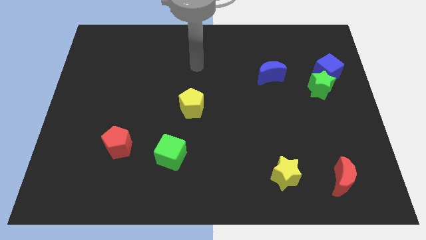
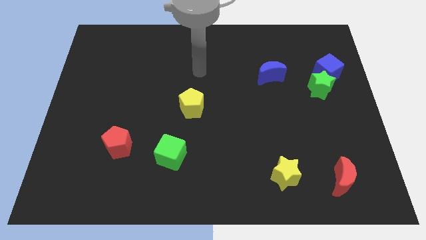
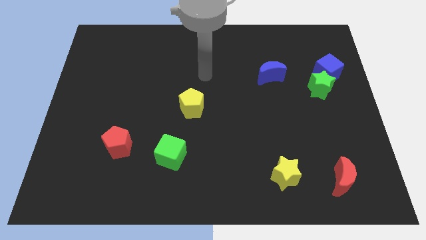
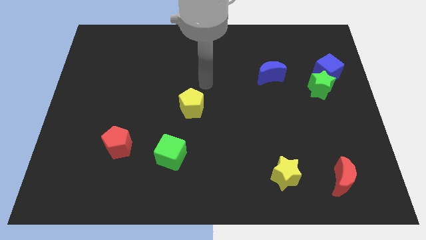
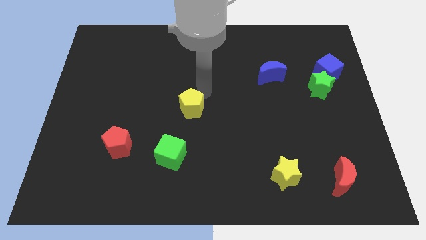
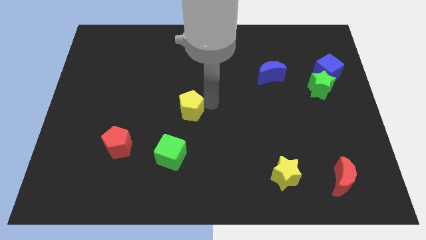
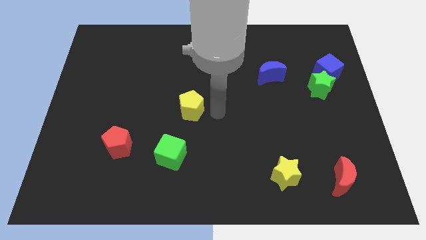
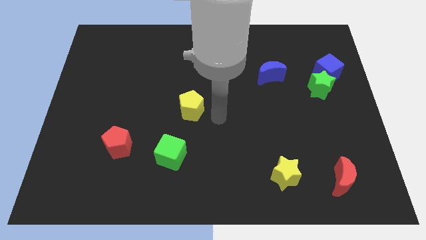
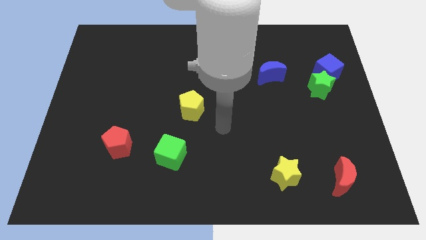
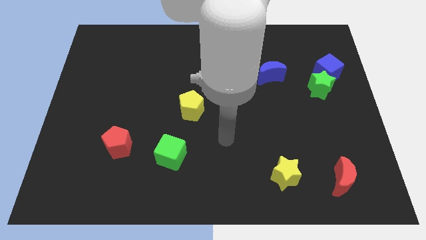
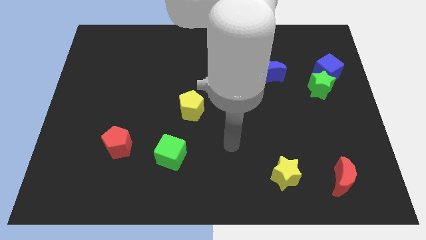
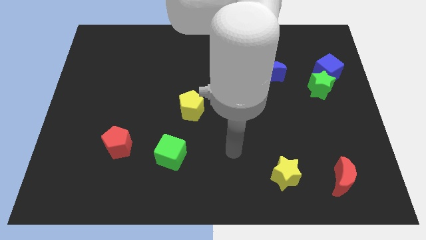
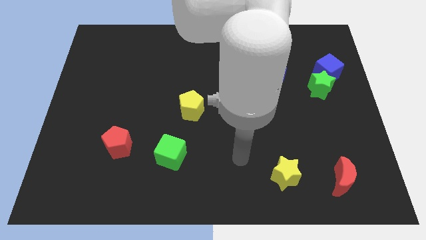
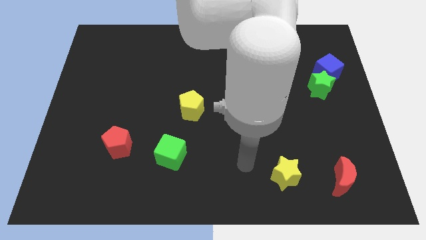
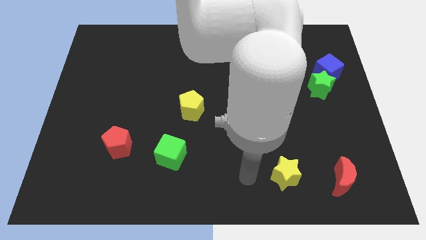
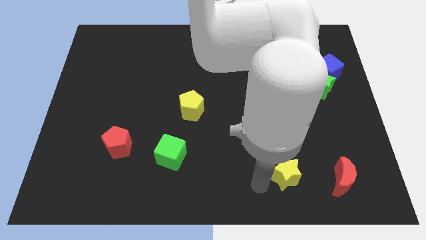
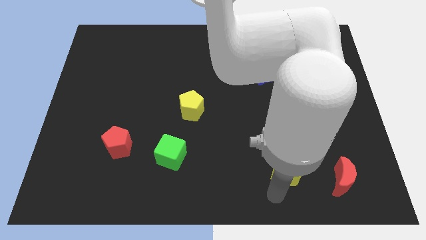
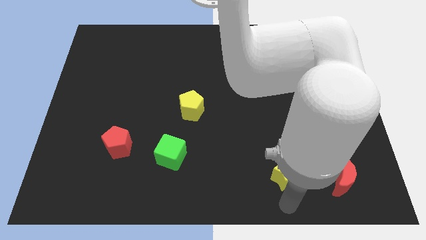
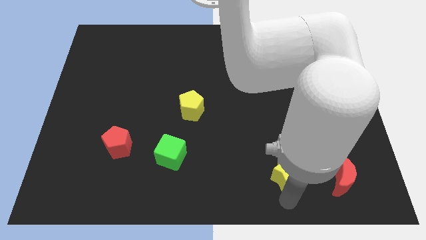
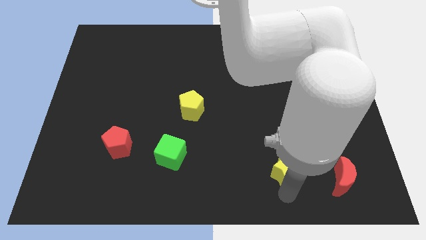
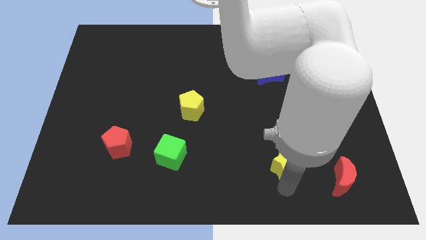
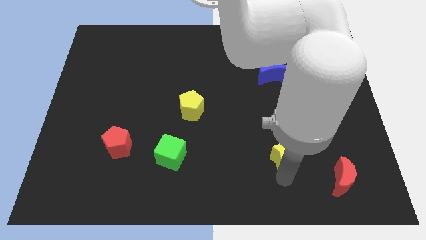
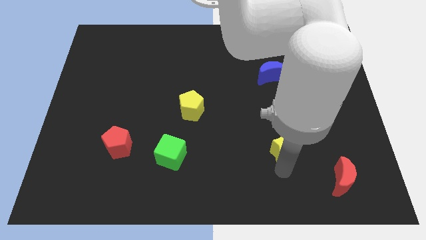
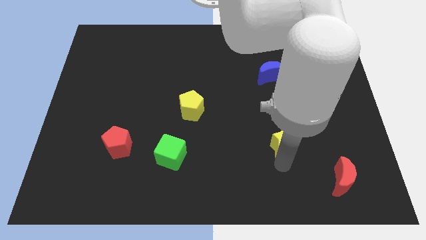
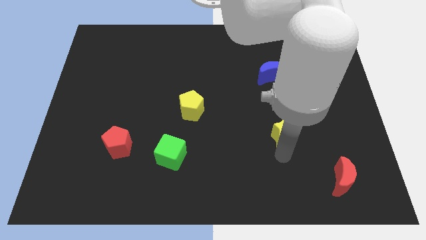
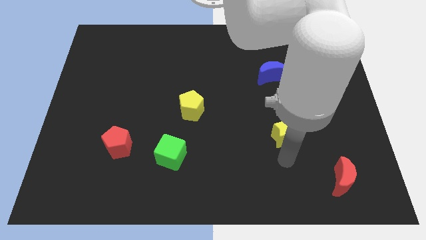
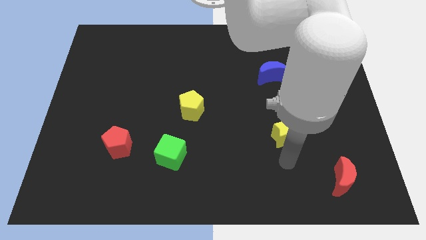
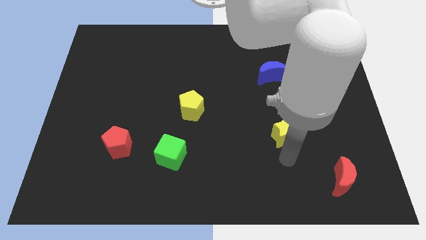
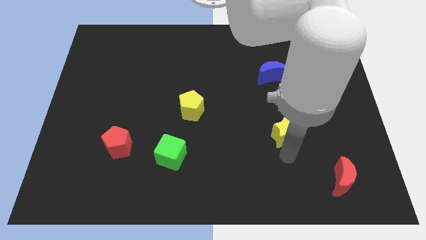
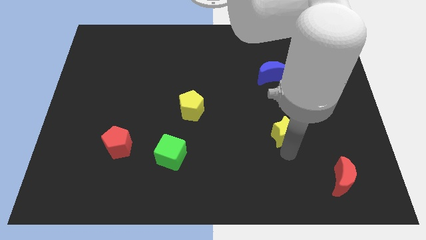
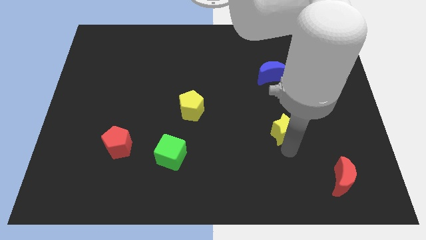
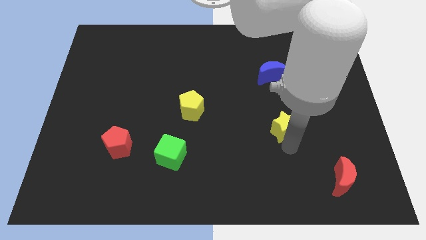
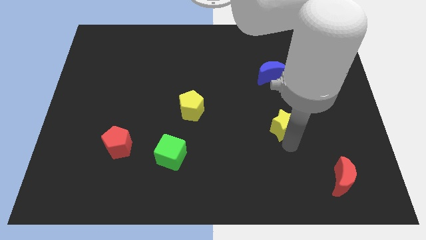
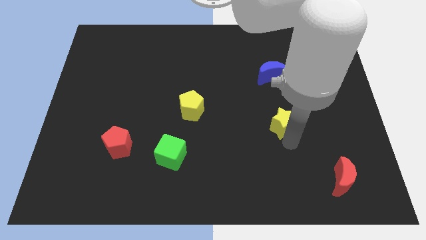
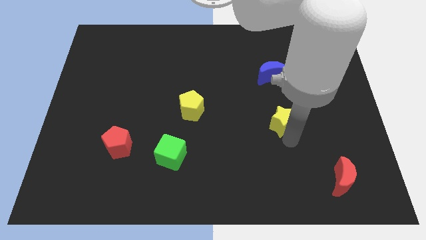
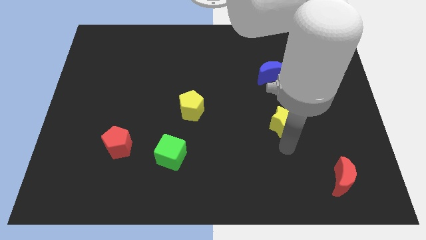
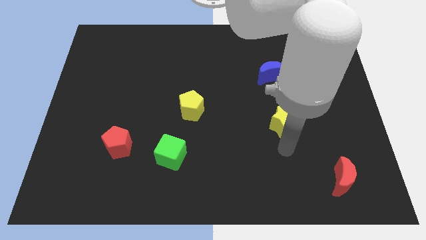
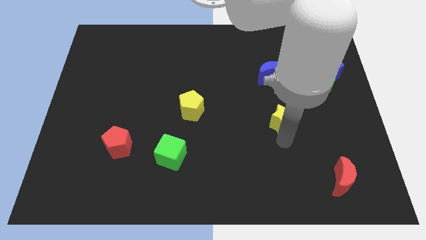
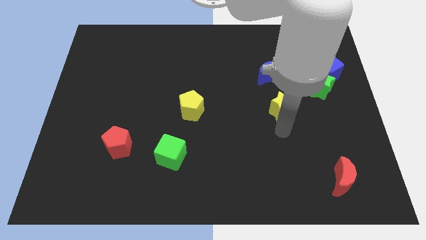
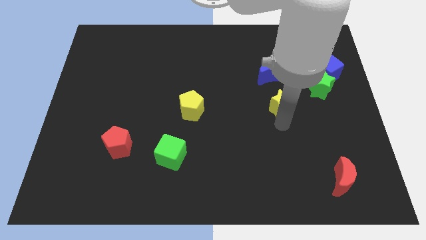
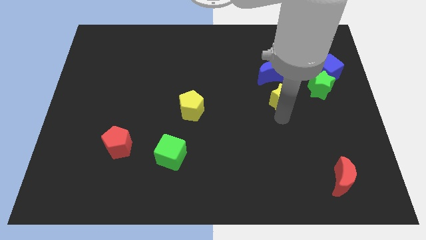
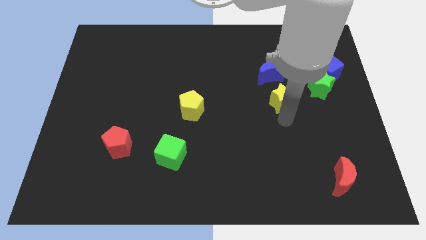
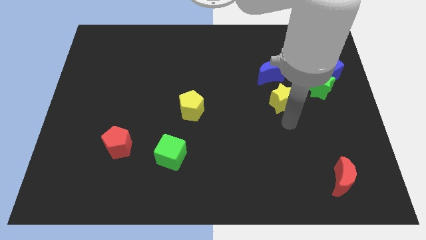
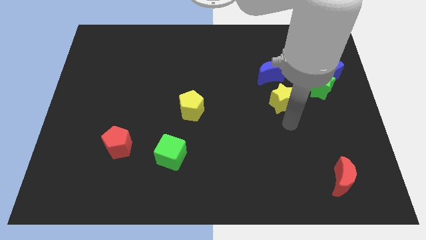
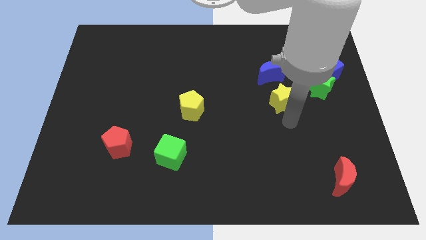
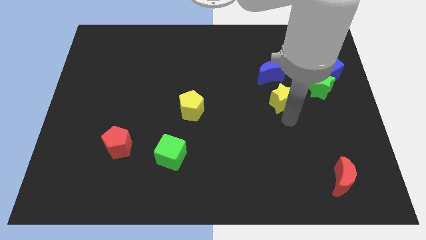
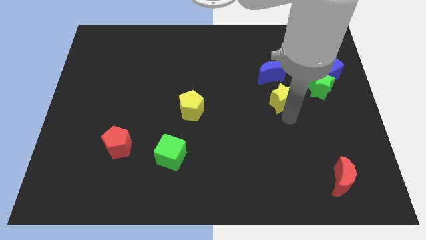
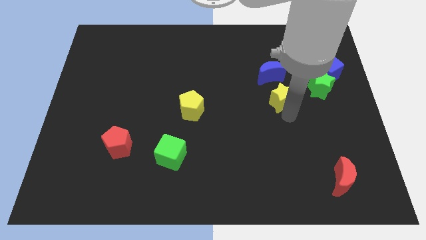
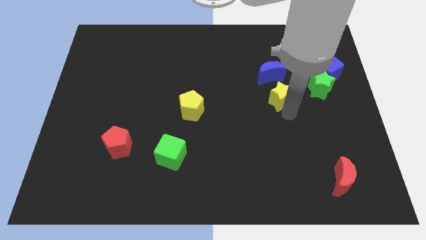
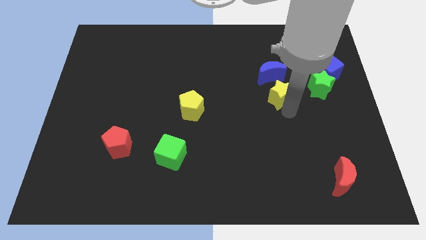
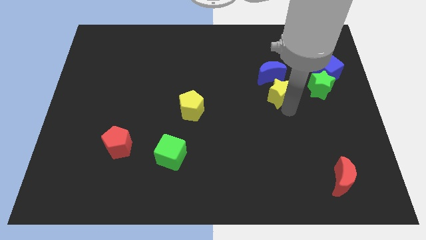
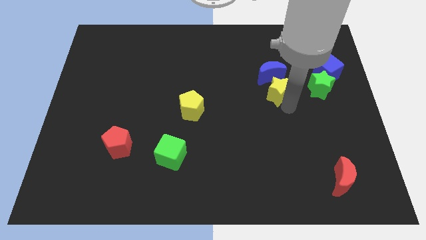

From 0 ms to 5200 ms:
move the yellow star next to the blue moon

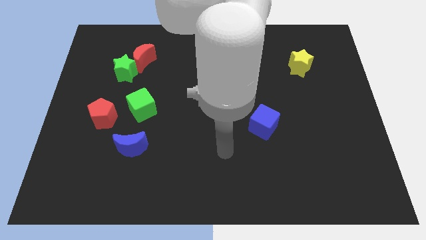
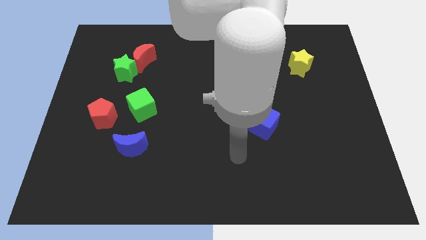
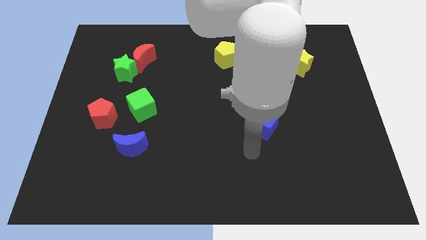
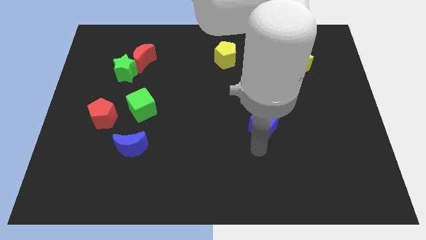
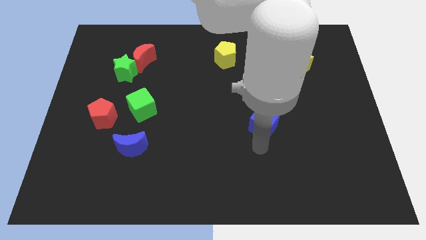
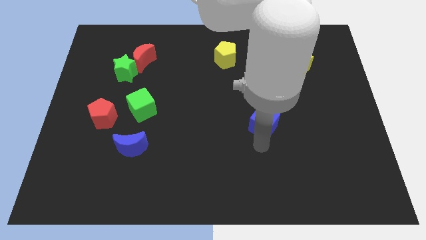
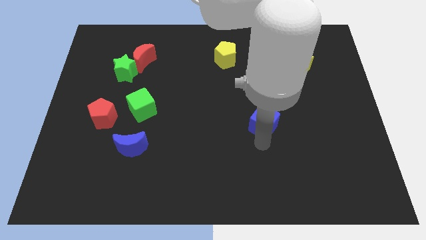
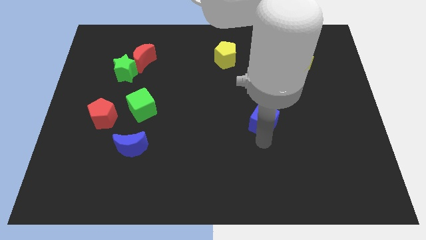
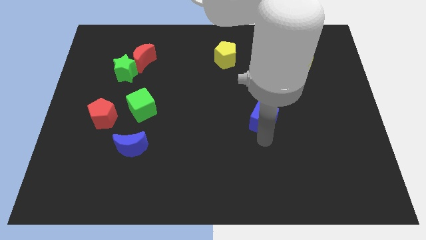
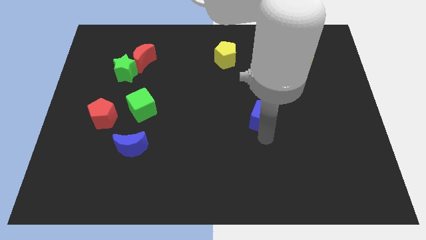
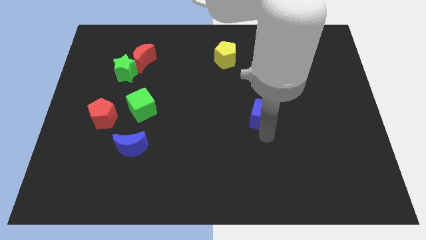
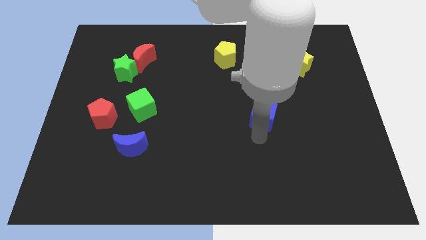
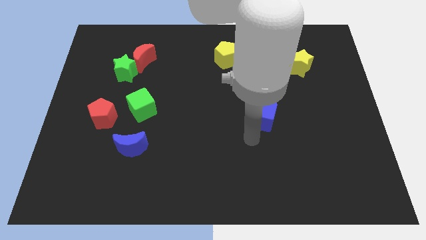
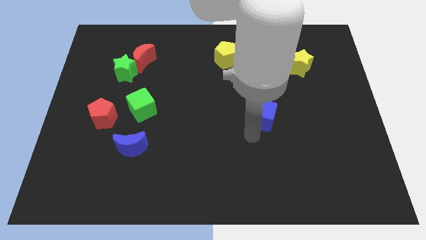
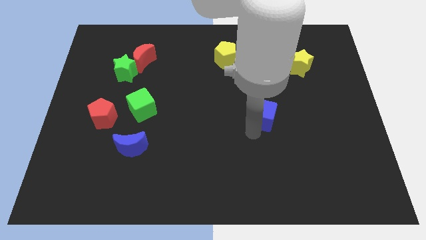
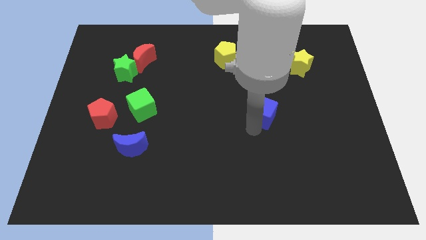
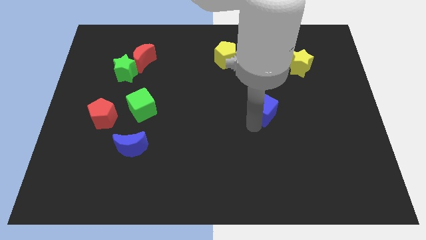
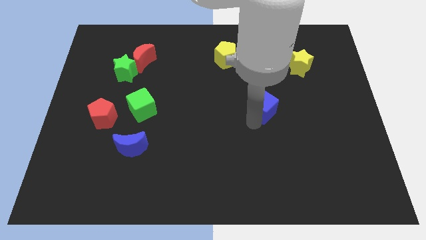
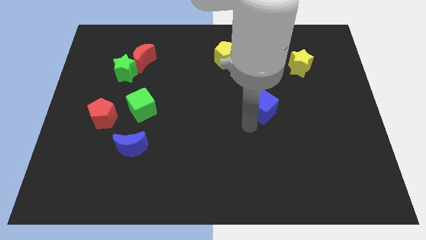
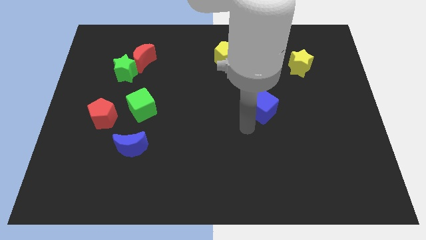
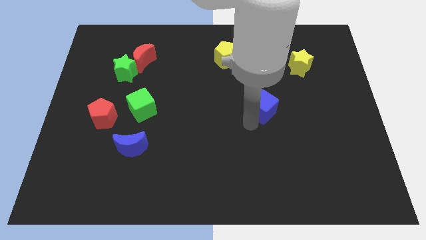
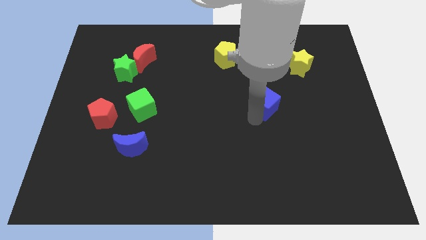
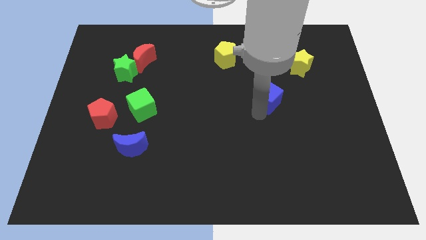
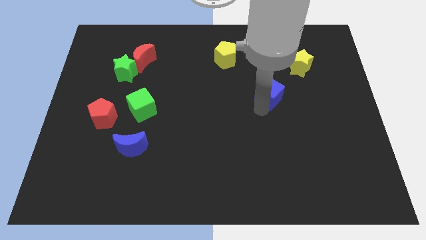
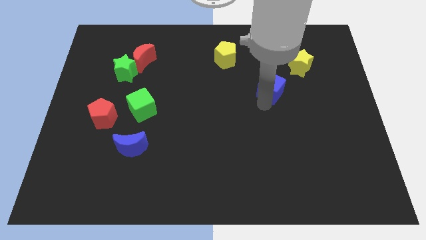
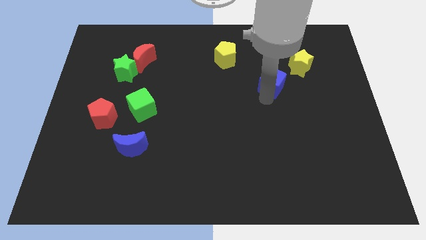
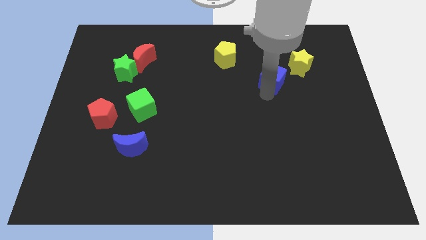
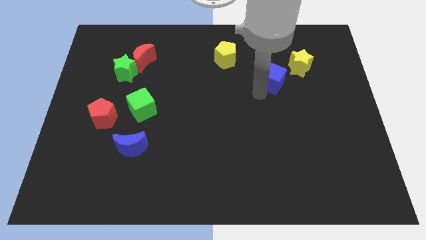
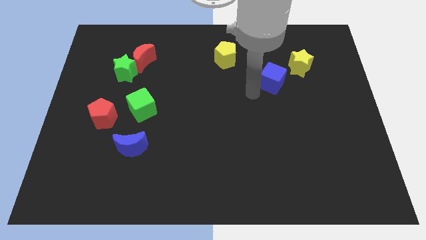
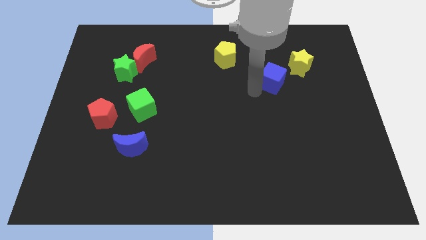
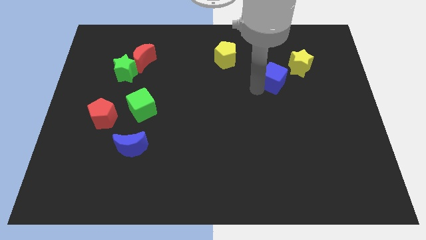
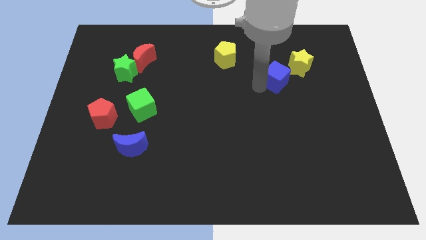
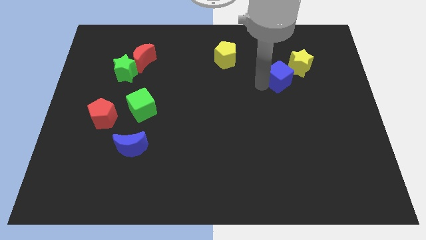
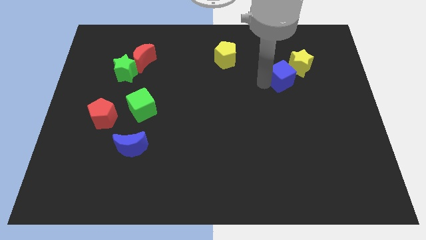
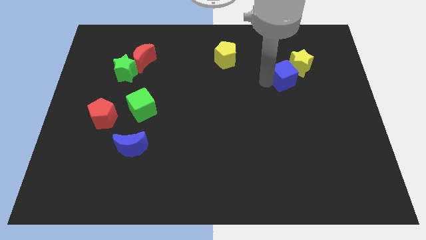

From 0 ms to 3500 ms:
move the blue cube to the yellow star
